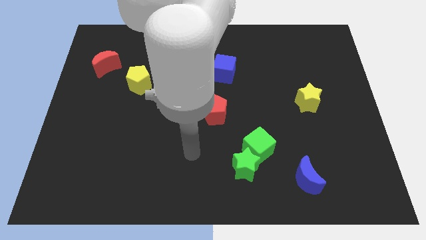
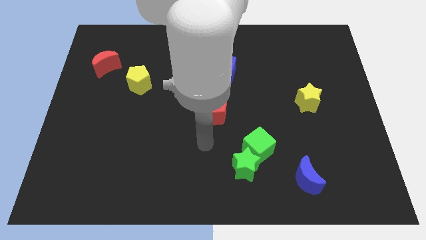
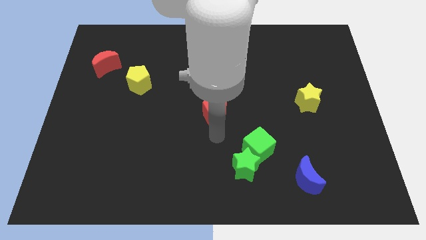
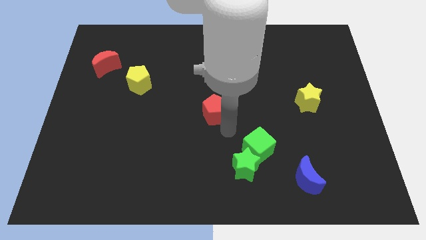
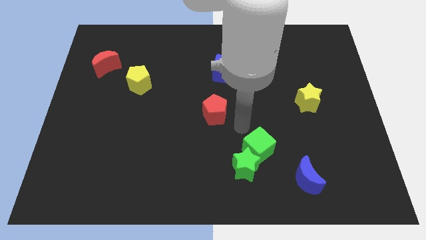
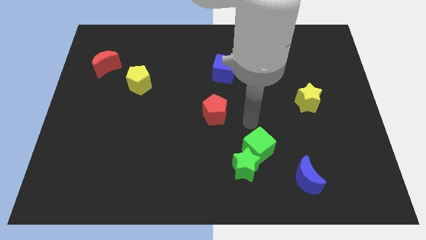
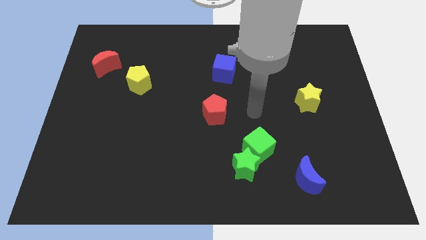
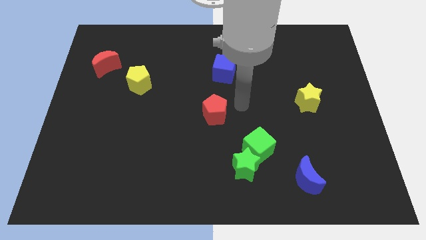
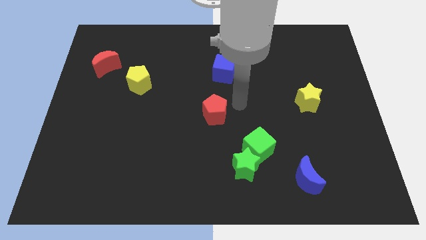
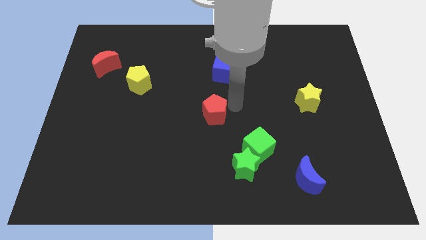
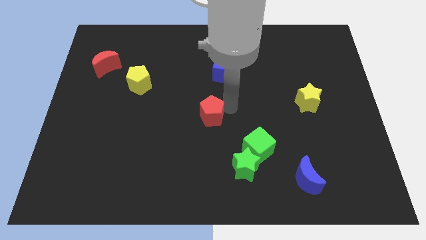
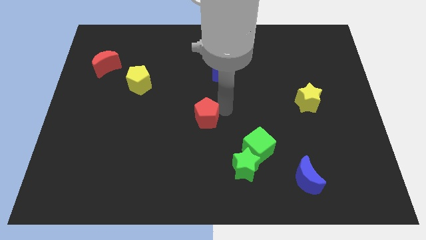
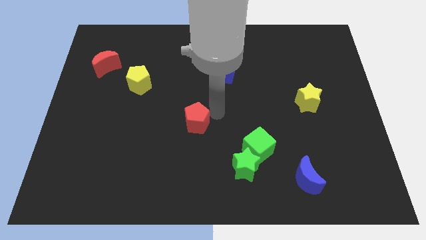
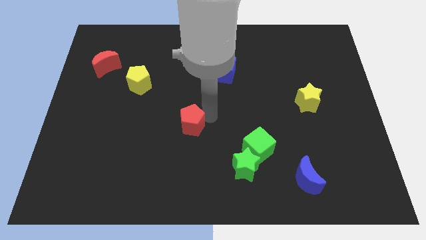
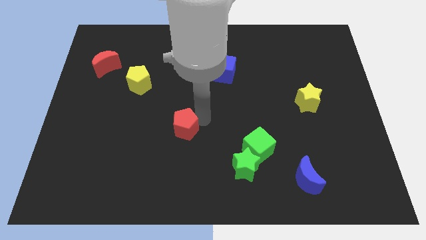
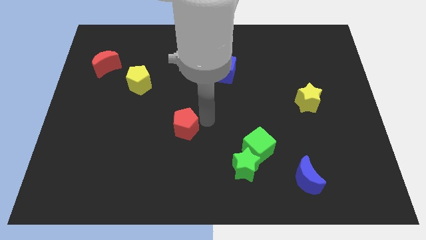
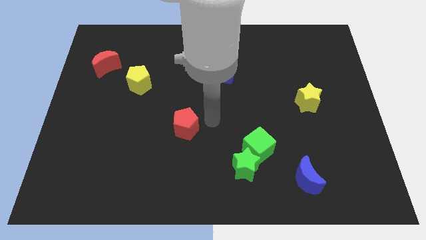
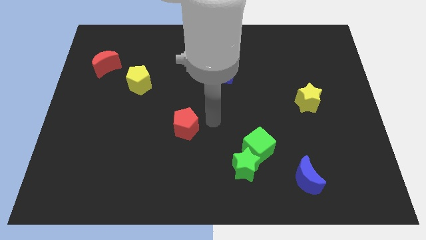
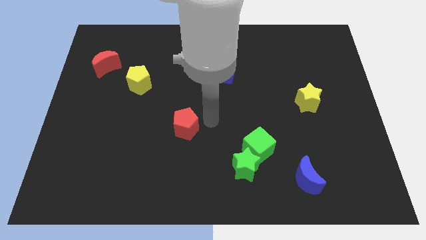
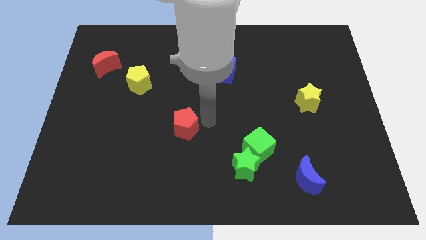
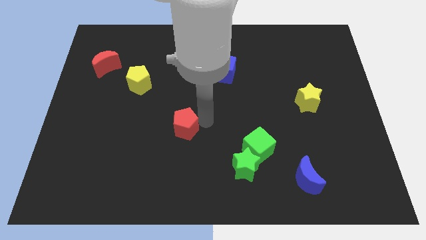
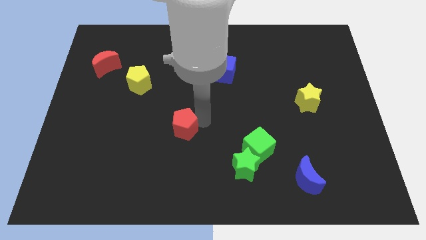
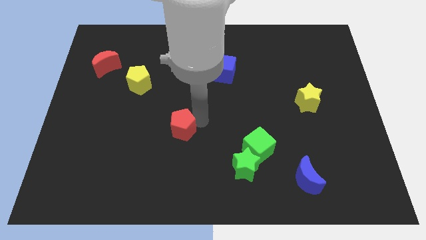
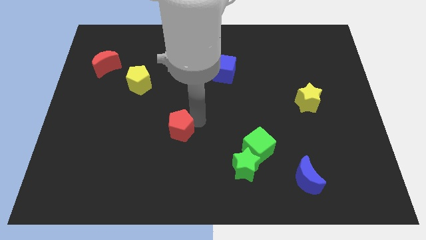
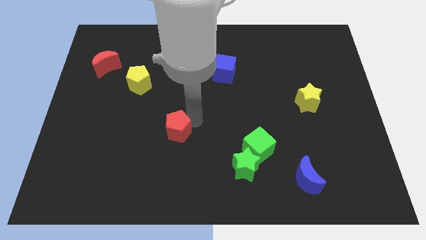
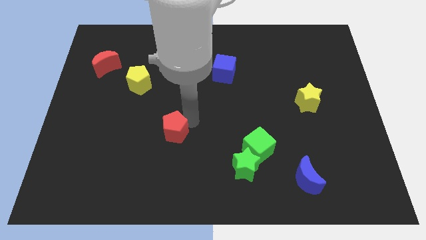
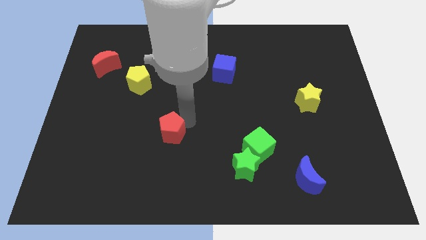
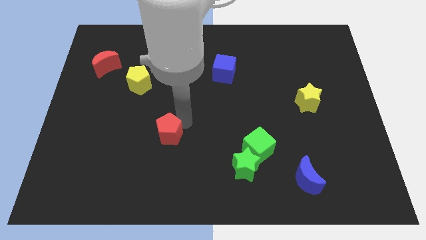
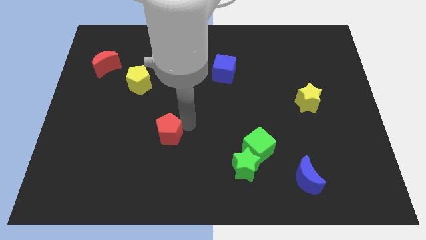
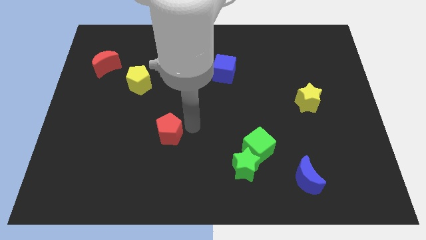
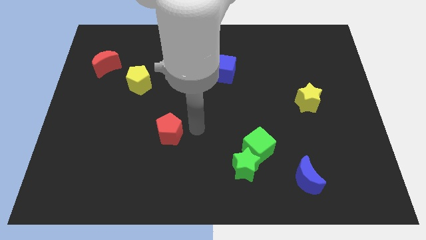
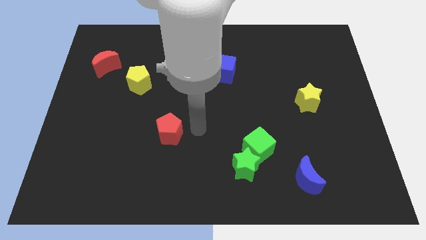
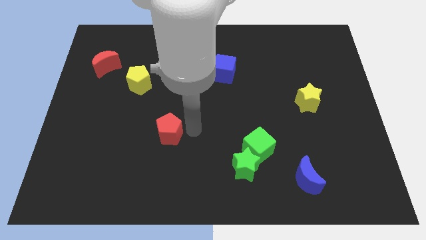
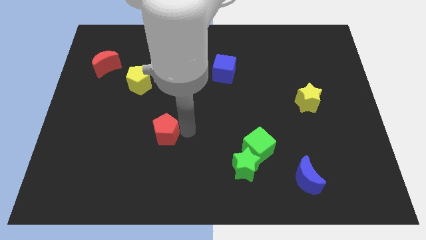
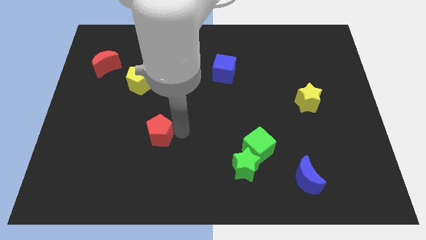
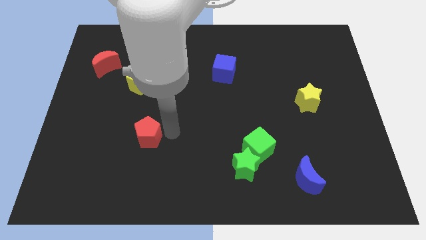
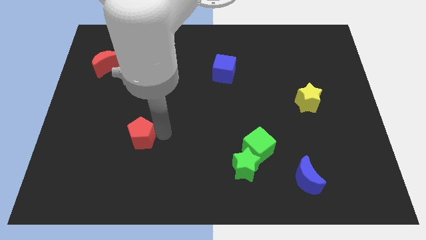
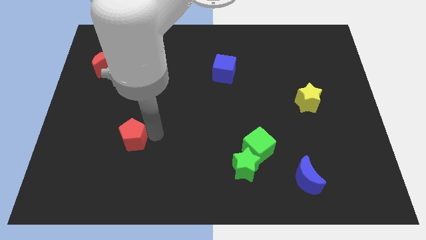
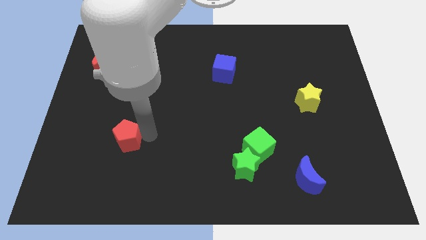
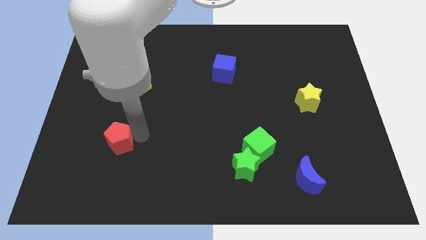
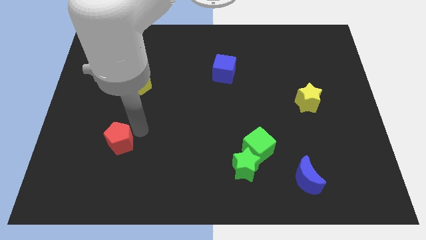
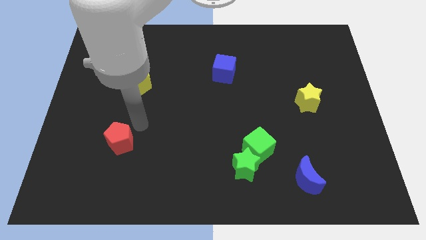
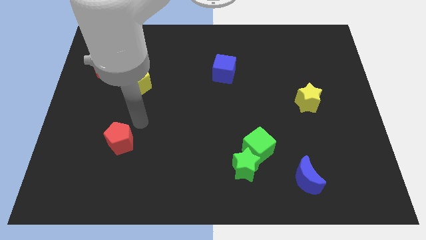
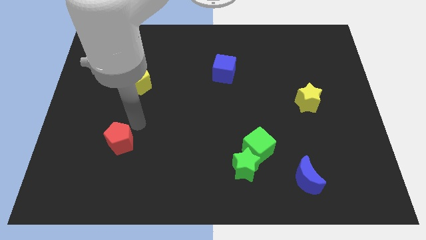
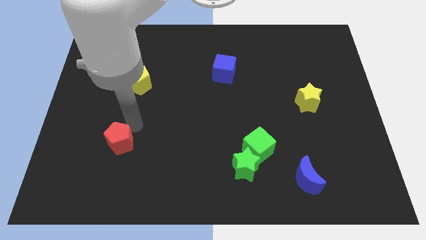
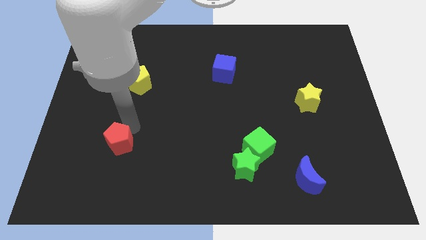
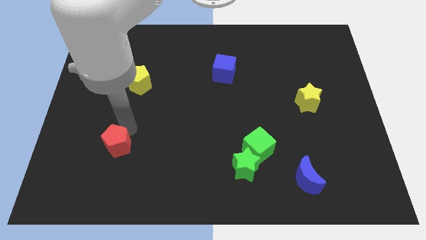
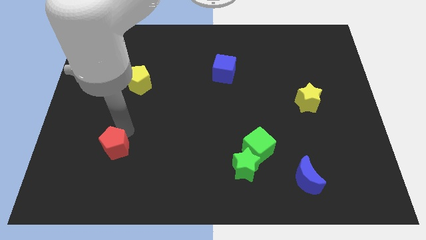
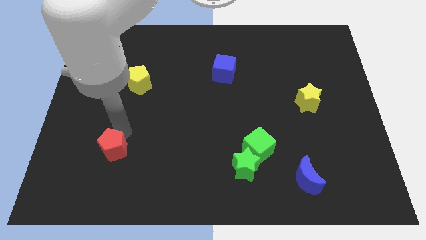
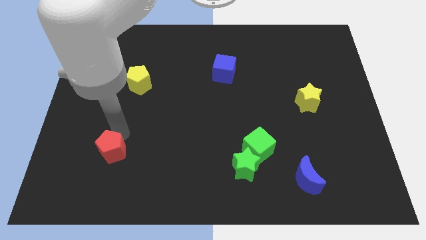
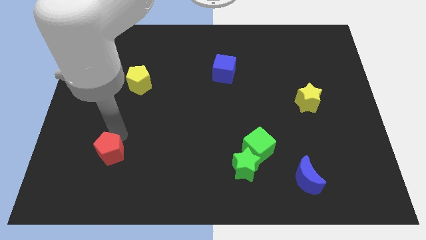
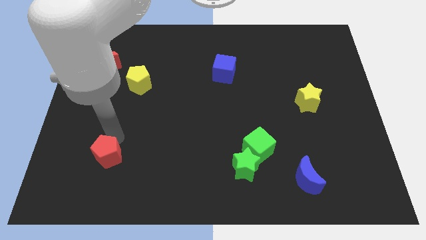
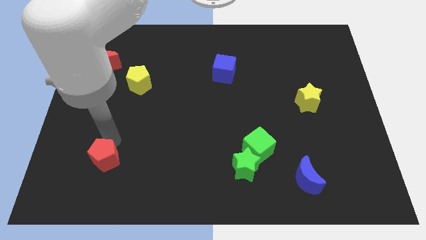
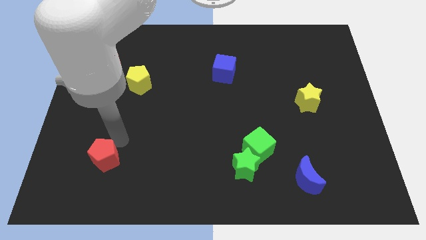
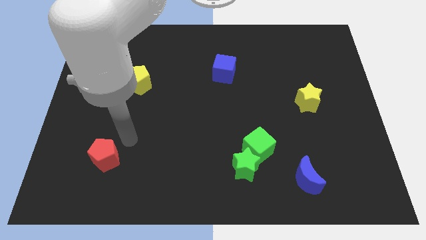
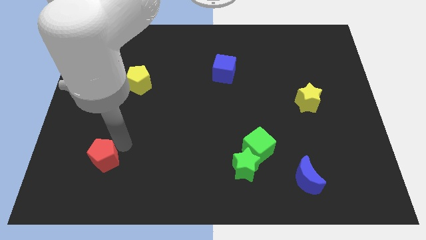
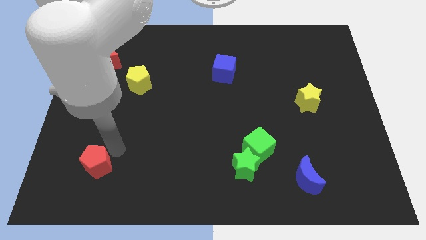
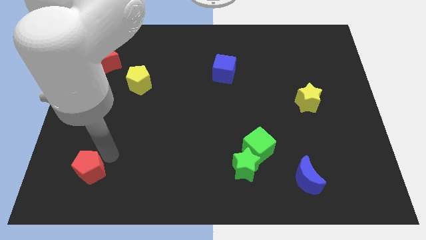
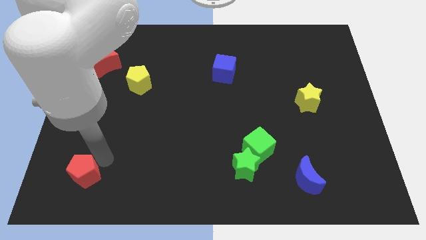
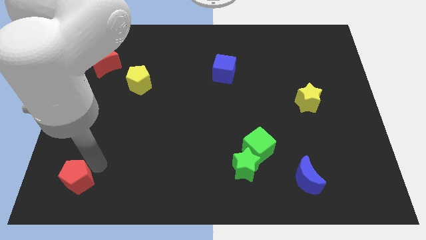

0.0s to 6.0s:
move the red pentagon to the bottom left

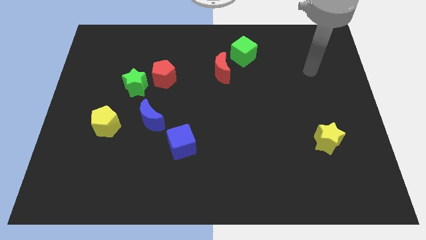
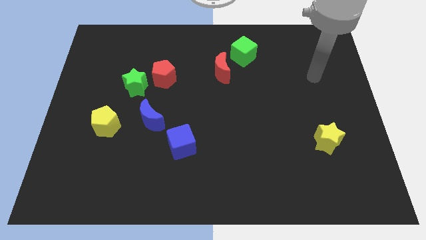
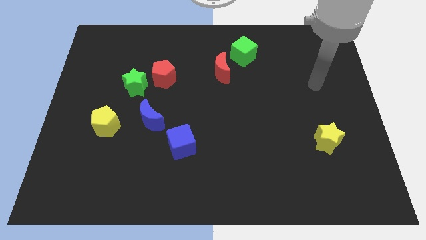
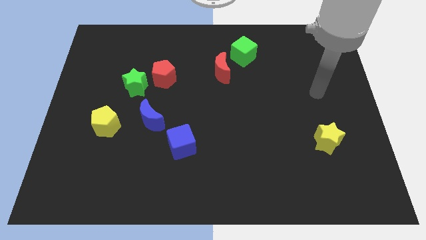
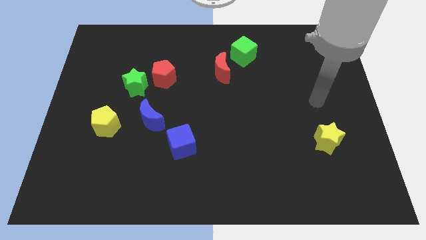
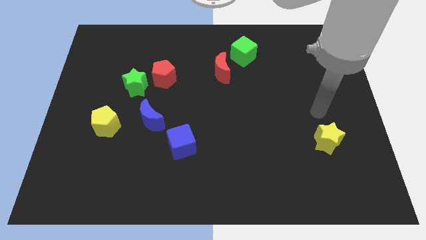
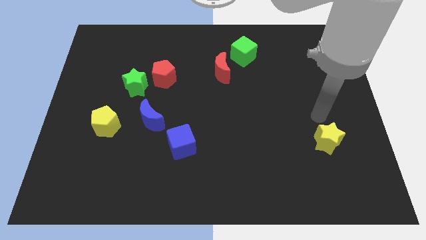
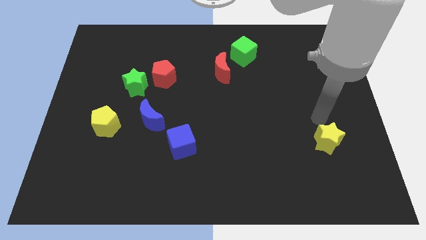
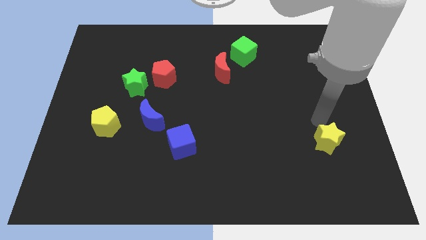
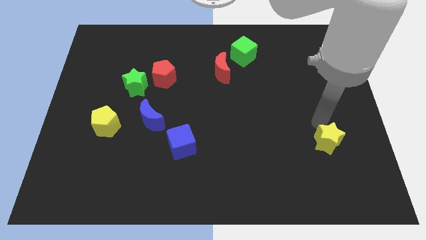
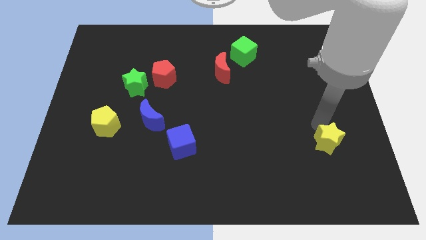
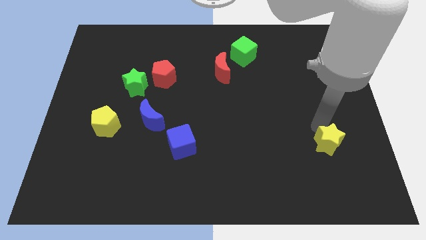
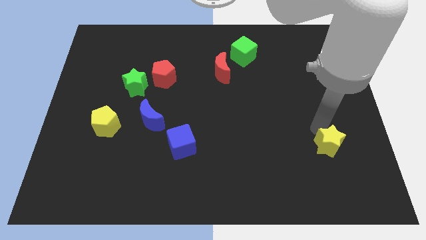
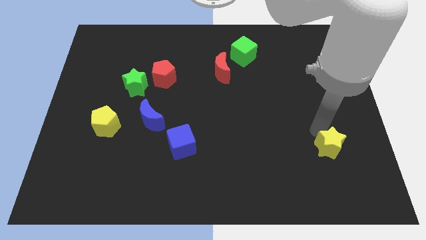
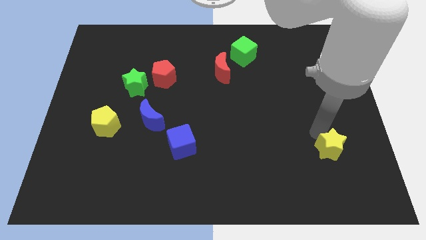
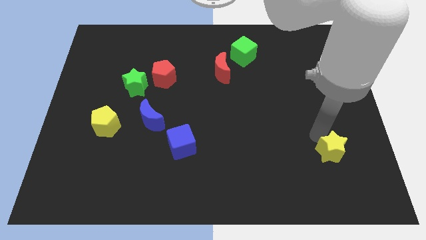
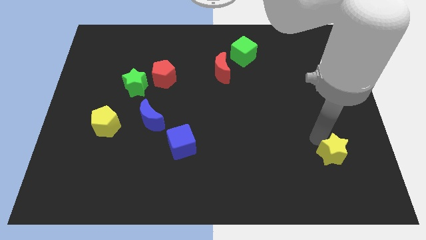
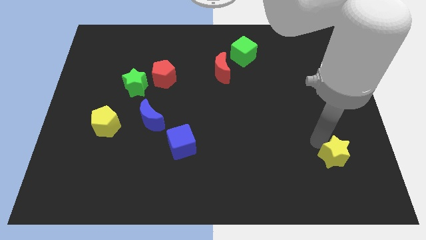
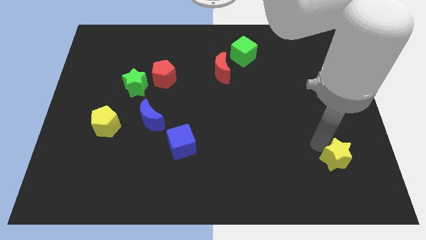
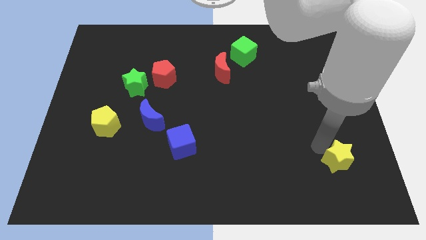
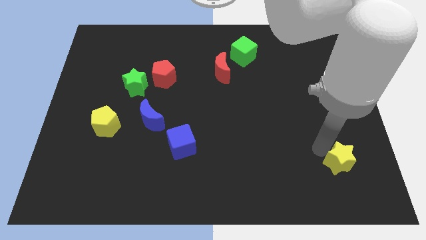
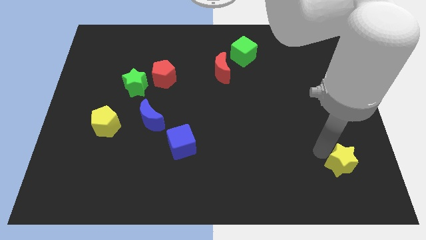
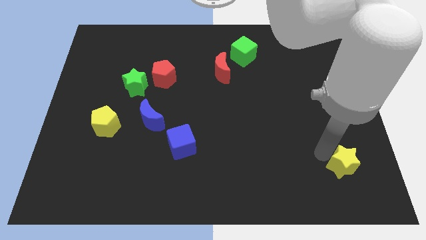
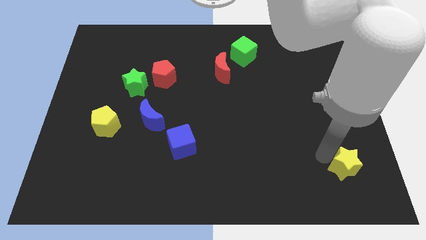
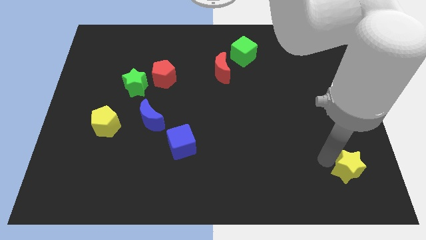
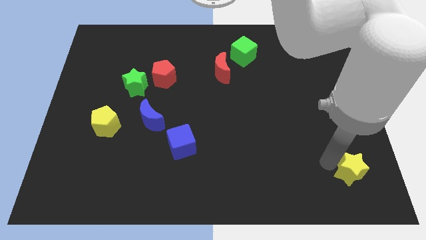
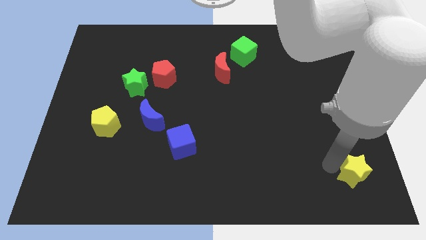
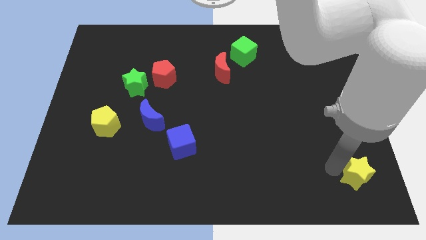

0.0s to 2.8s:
move the yellow star to the bottom right
